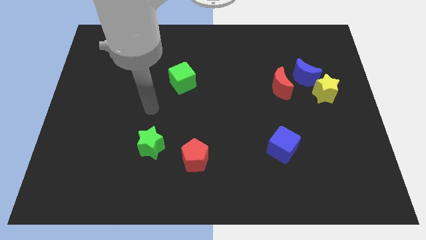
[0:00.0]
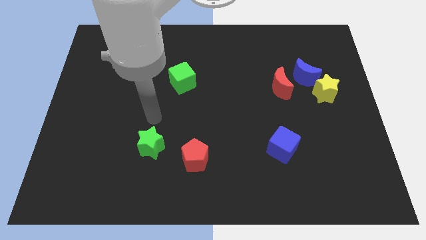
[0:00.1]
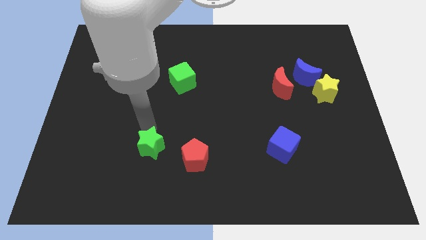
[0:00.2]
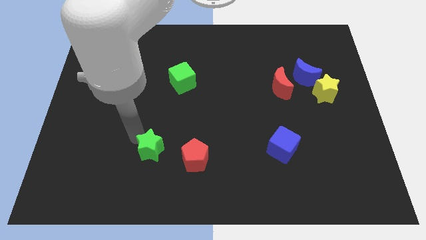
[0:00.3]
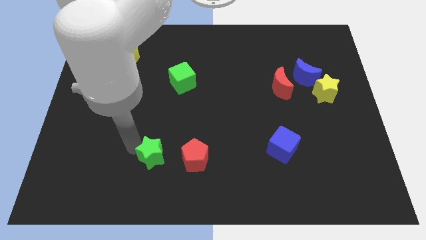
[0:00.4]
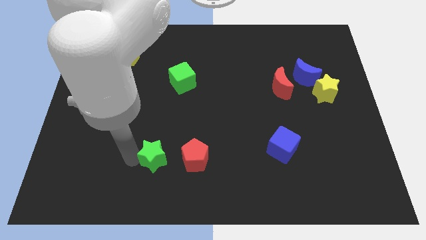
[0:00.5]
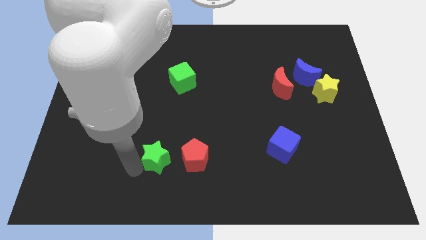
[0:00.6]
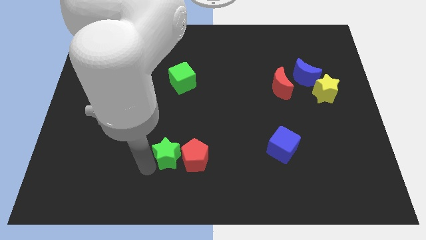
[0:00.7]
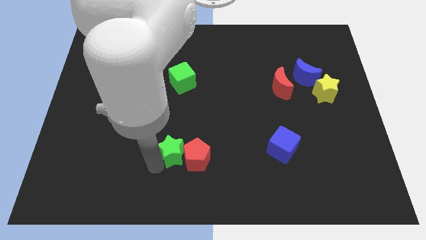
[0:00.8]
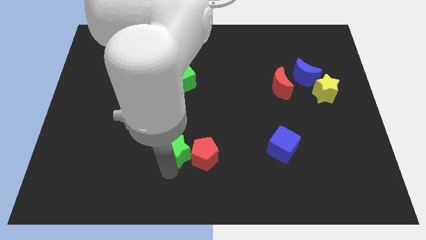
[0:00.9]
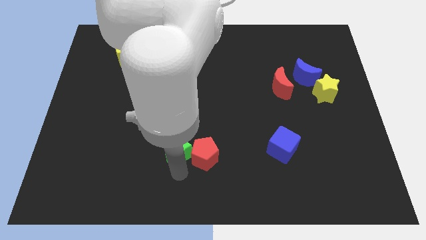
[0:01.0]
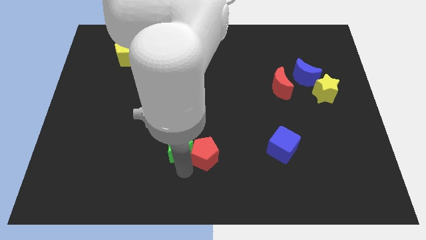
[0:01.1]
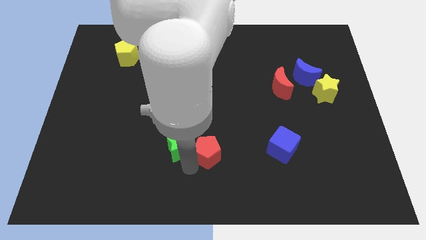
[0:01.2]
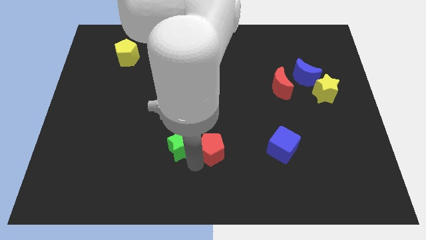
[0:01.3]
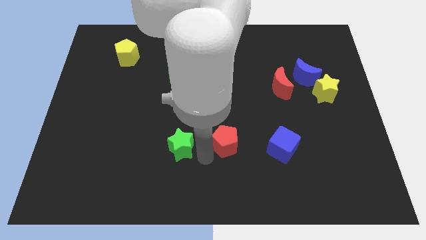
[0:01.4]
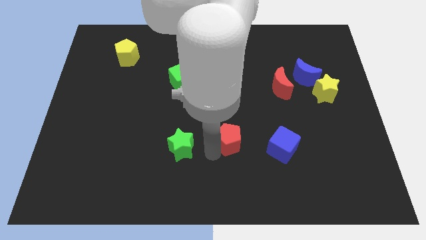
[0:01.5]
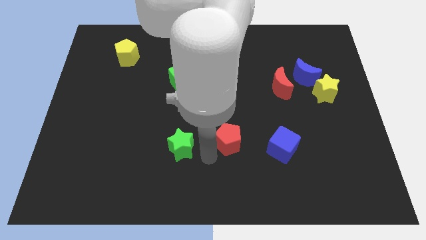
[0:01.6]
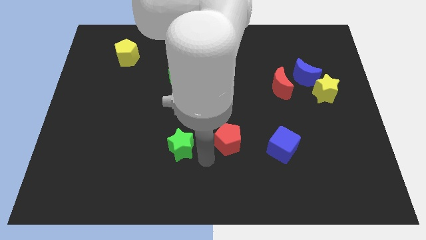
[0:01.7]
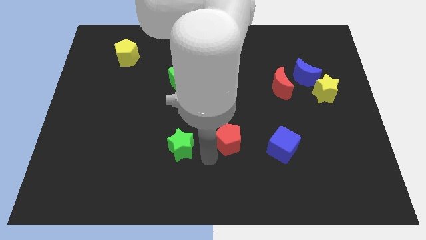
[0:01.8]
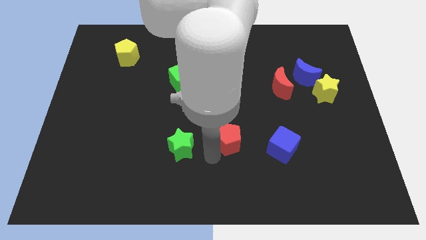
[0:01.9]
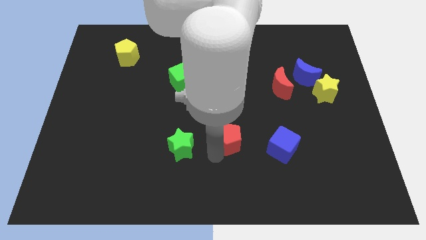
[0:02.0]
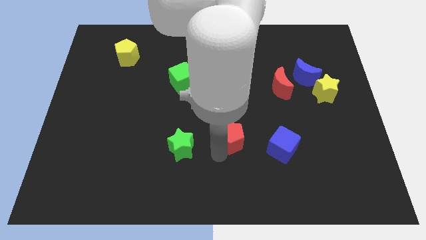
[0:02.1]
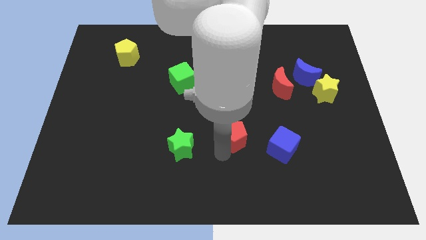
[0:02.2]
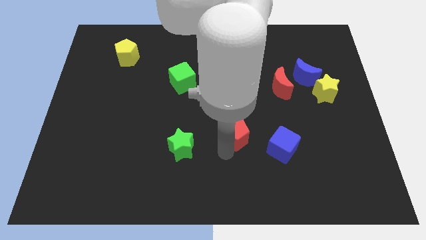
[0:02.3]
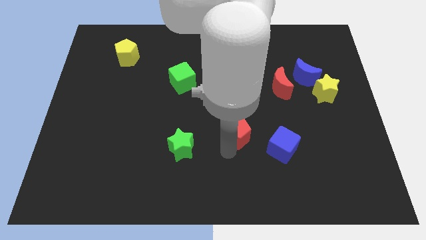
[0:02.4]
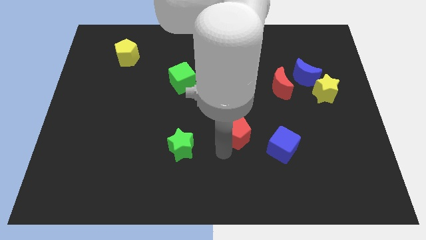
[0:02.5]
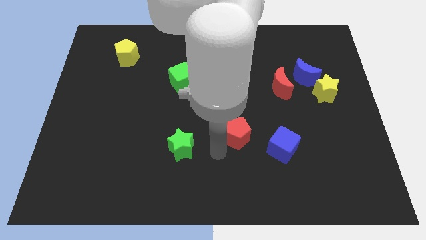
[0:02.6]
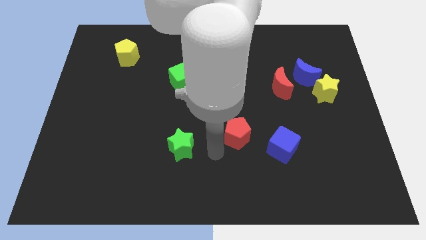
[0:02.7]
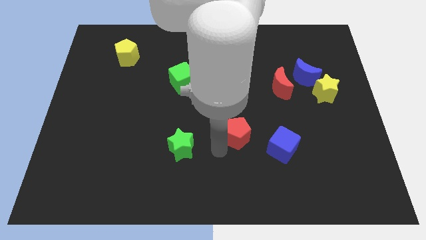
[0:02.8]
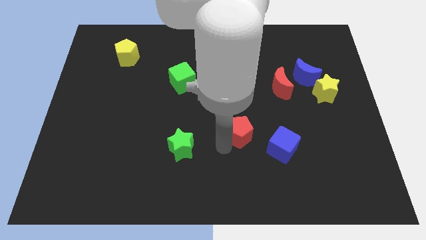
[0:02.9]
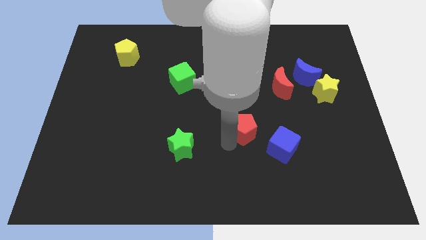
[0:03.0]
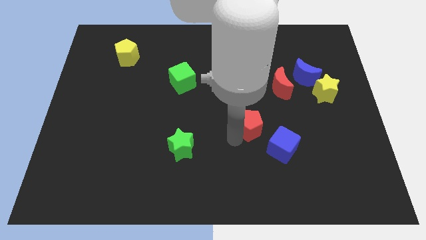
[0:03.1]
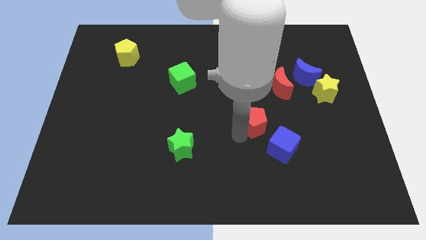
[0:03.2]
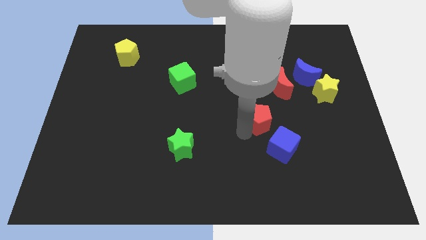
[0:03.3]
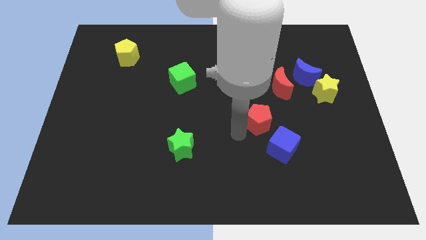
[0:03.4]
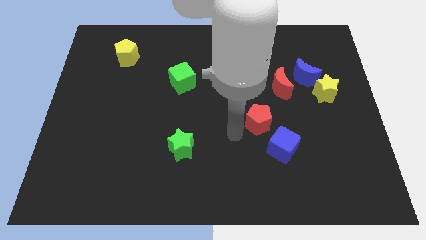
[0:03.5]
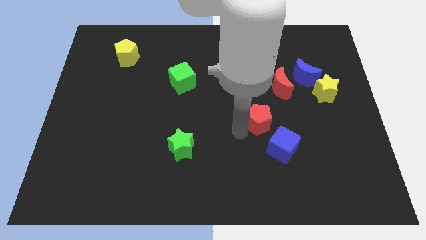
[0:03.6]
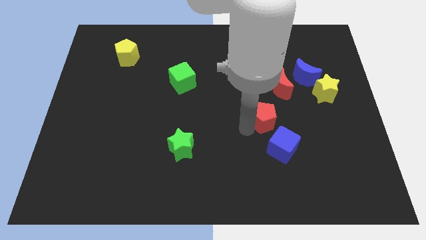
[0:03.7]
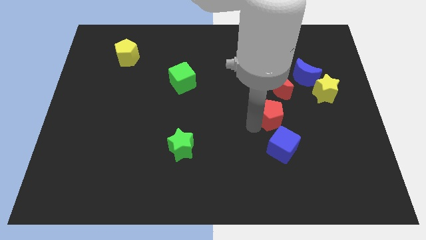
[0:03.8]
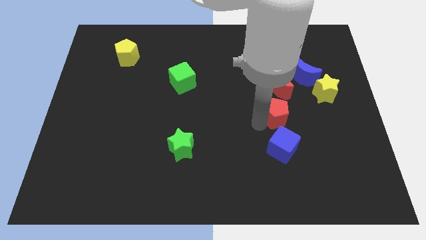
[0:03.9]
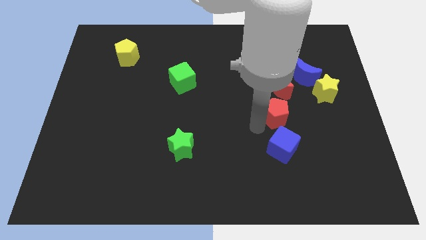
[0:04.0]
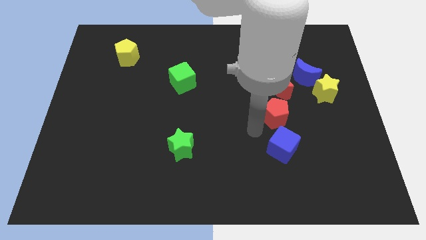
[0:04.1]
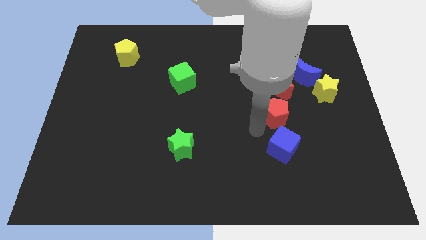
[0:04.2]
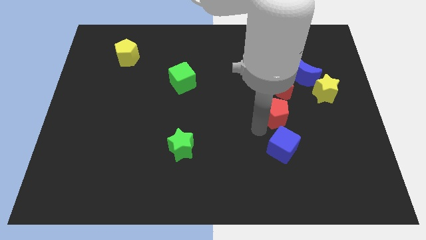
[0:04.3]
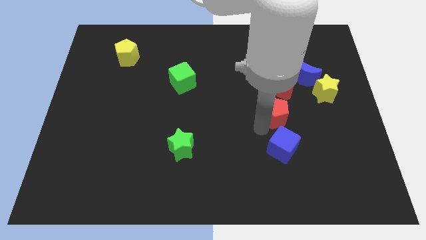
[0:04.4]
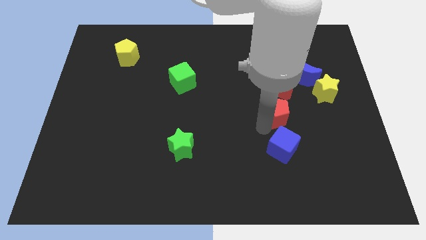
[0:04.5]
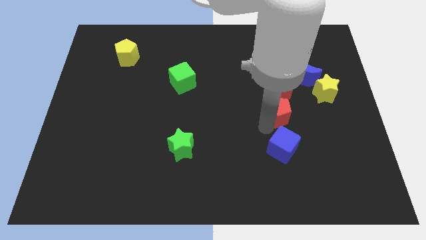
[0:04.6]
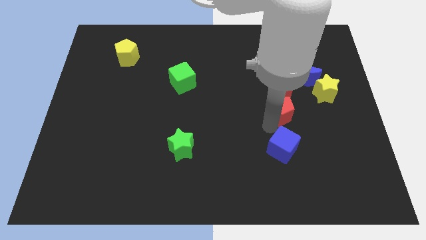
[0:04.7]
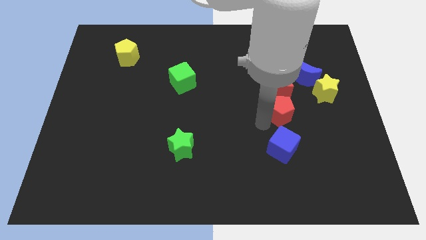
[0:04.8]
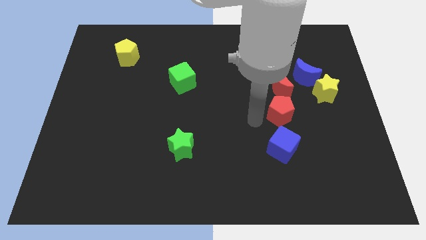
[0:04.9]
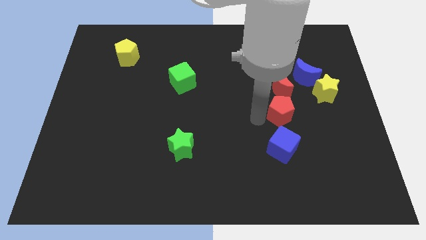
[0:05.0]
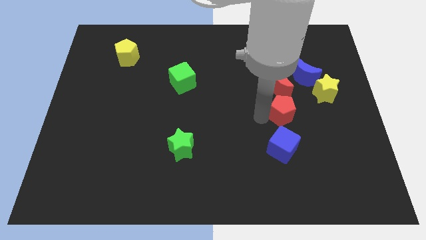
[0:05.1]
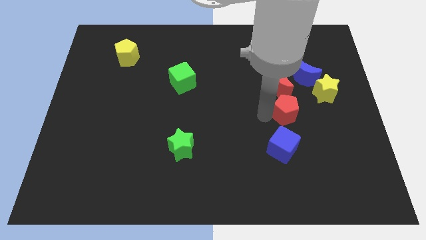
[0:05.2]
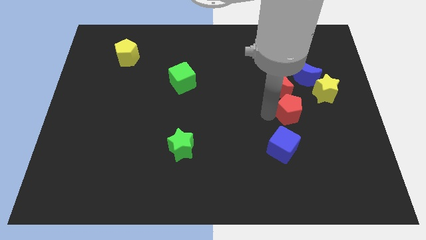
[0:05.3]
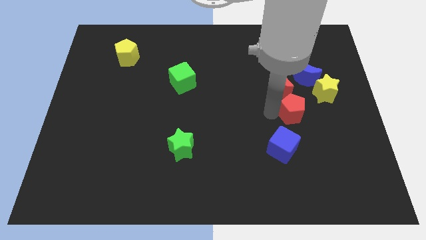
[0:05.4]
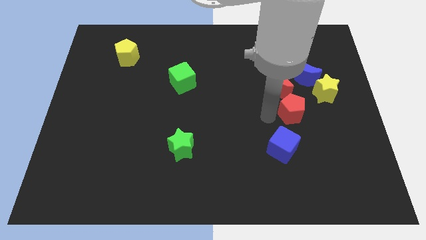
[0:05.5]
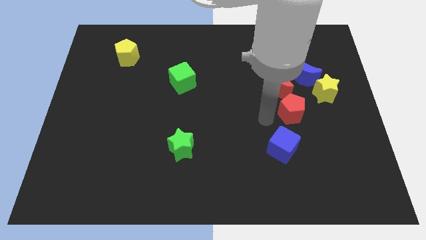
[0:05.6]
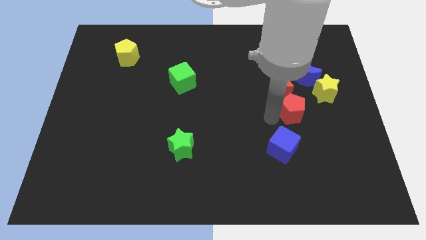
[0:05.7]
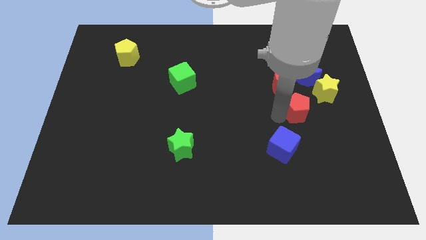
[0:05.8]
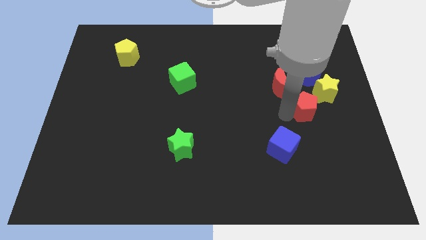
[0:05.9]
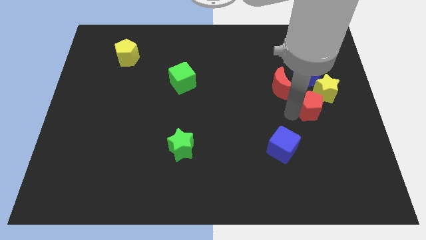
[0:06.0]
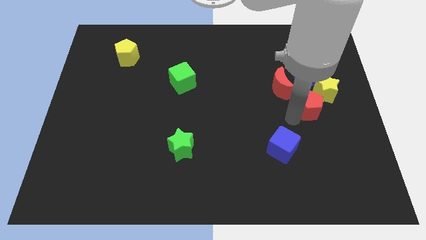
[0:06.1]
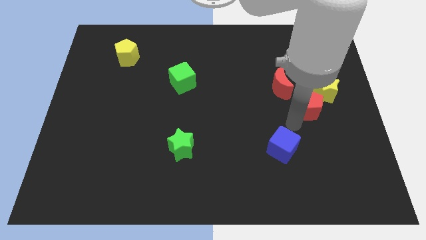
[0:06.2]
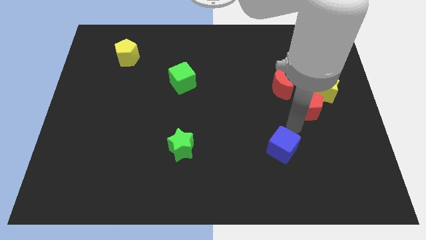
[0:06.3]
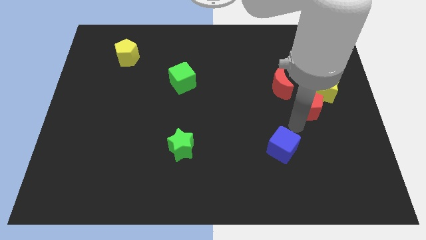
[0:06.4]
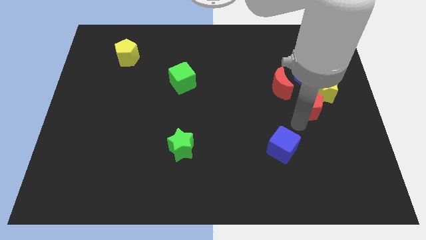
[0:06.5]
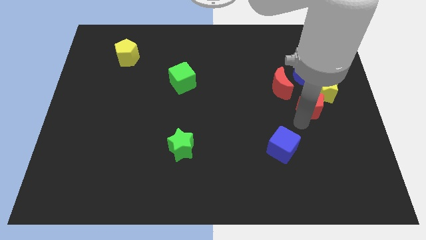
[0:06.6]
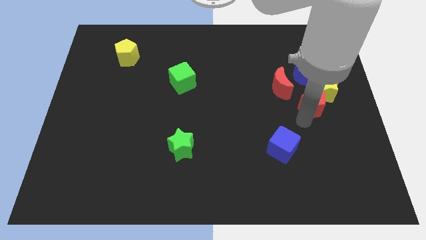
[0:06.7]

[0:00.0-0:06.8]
push the red pentagon next to the yellow star
